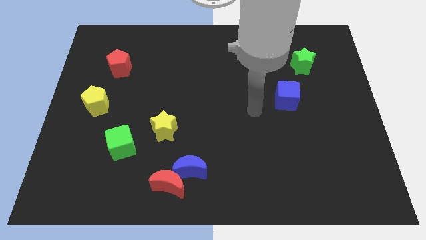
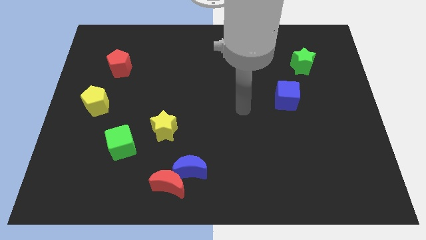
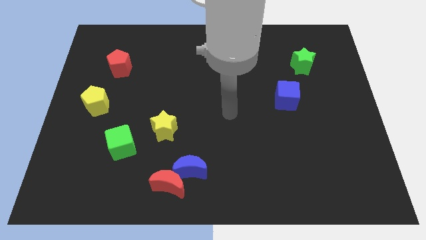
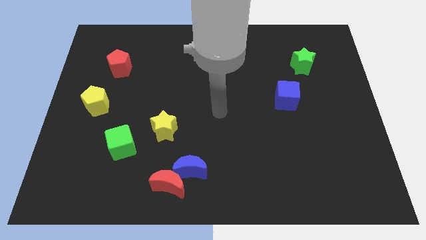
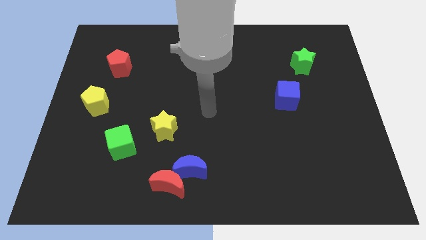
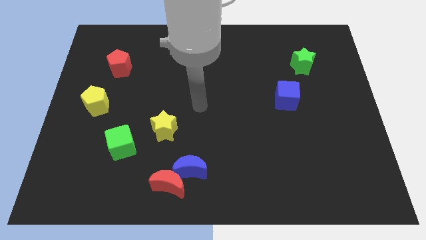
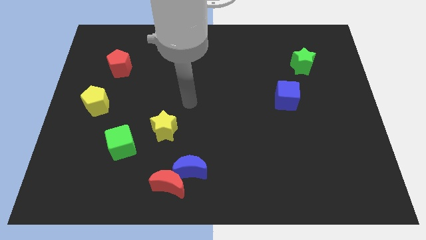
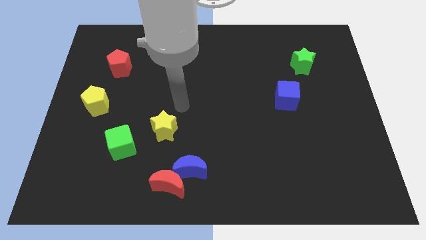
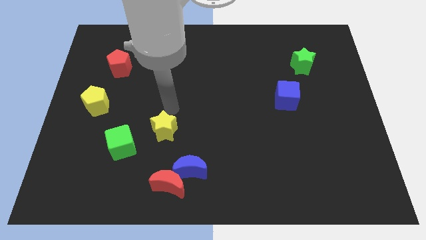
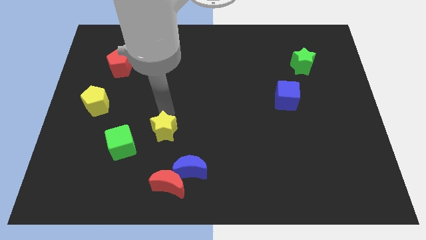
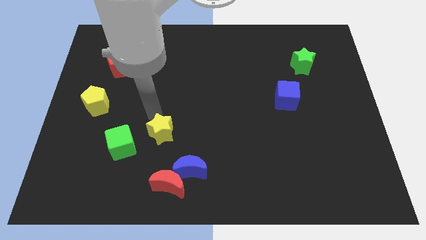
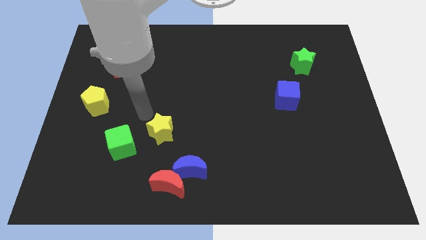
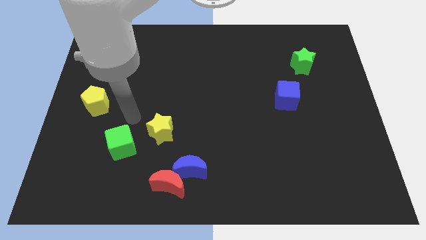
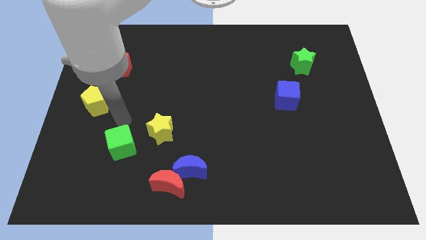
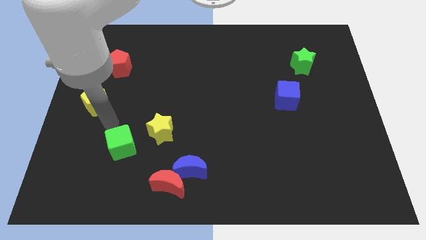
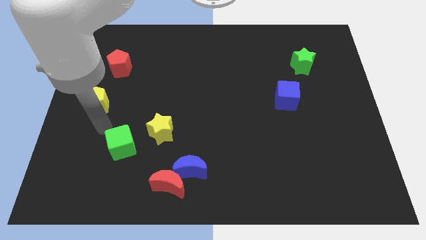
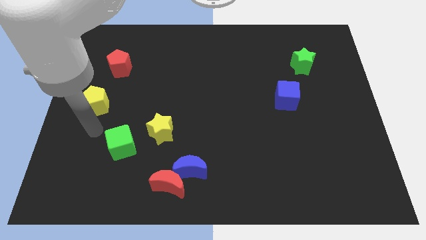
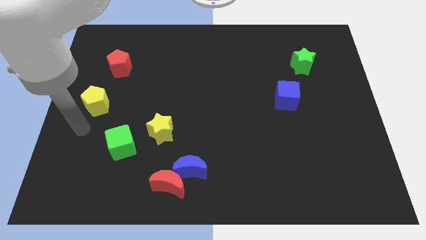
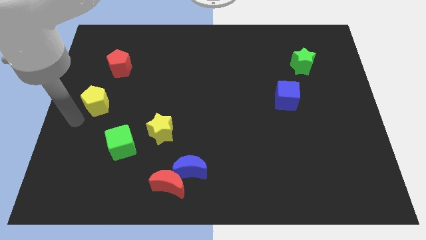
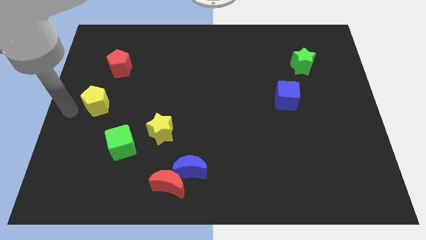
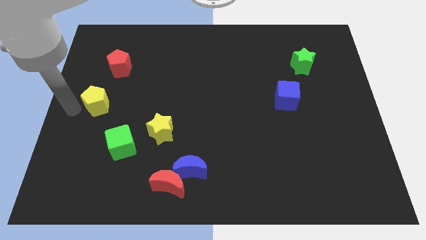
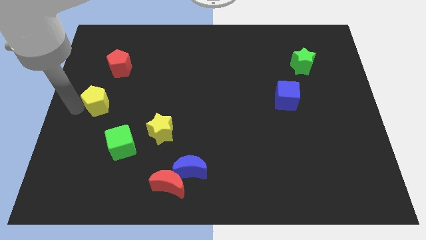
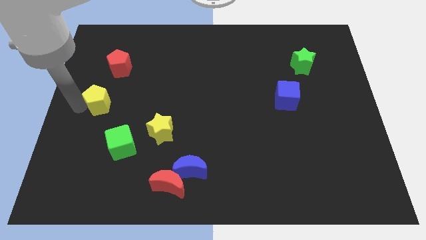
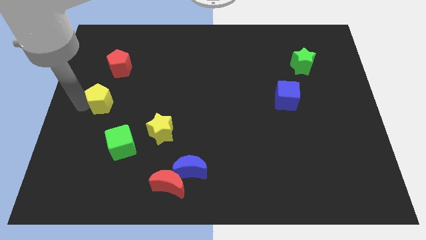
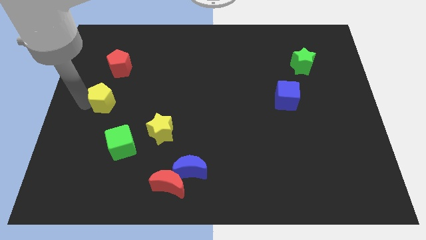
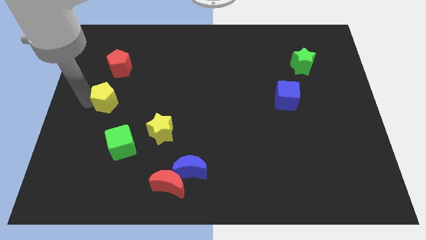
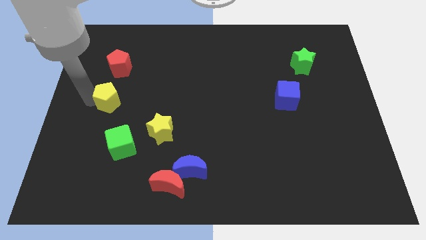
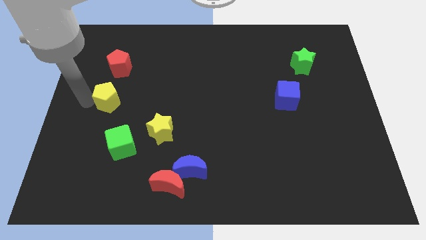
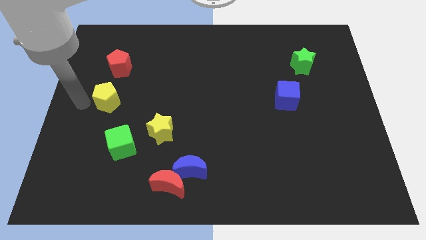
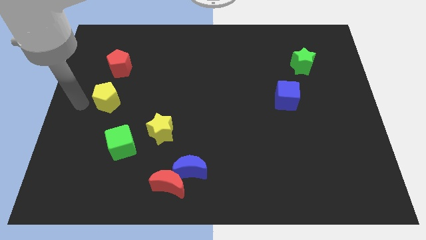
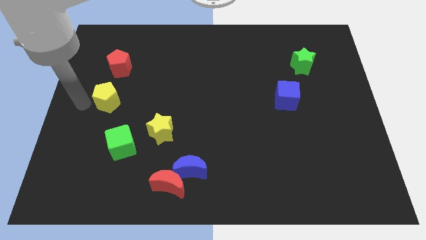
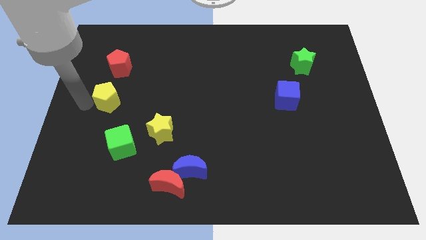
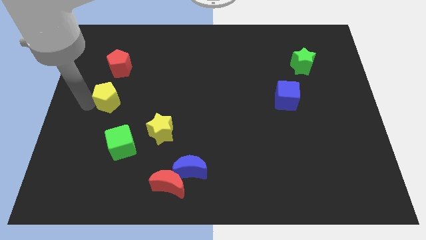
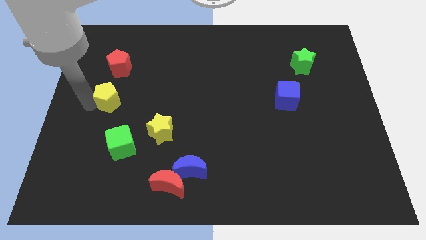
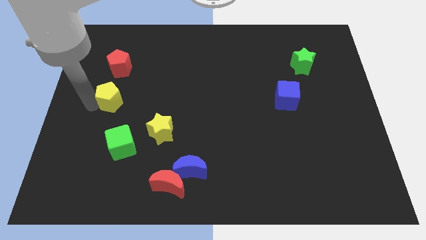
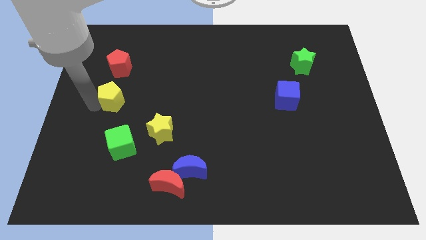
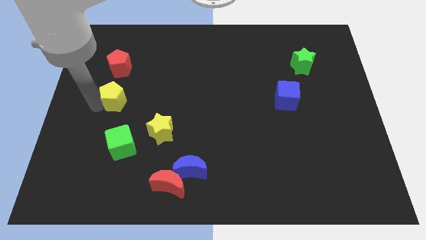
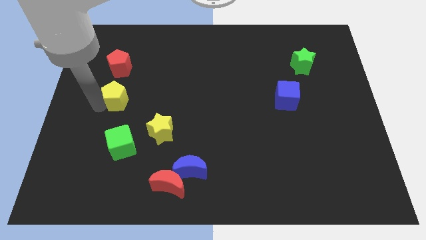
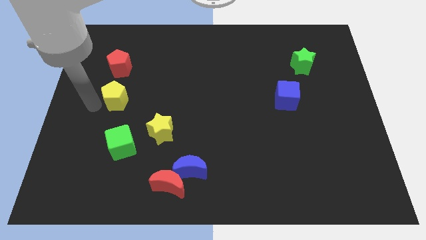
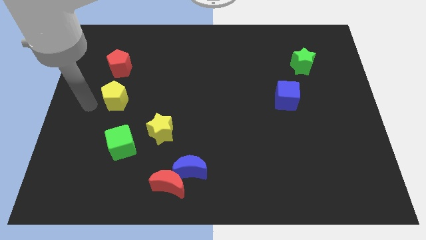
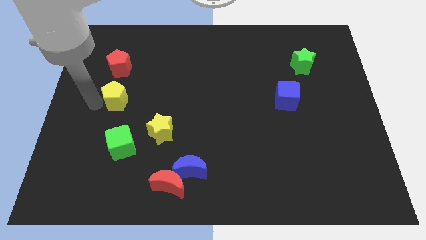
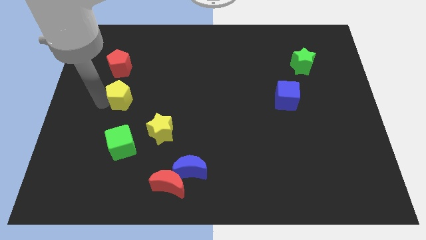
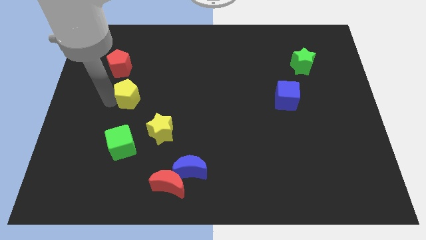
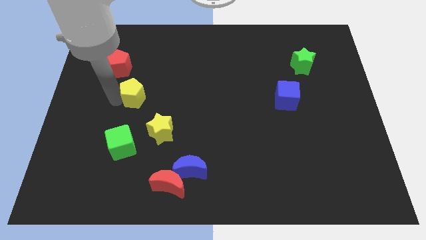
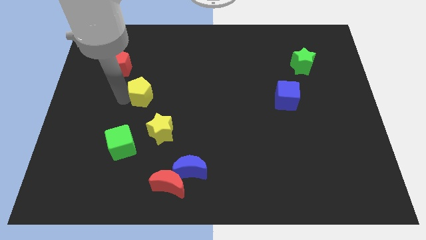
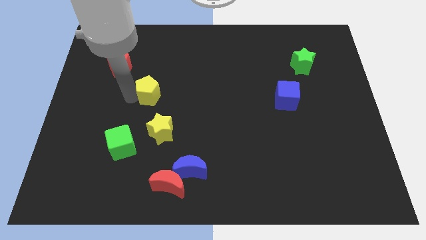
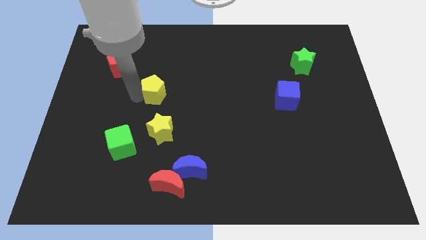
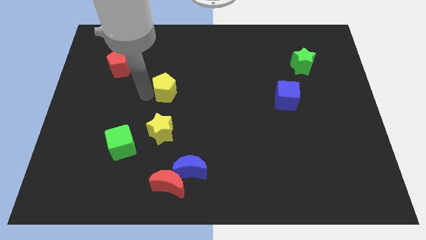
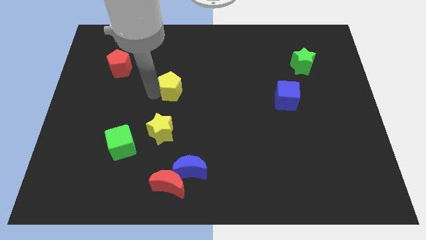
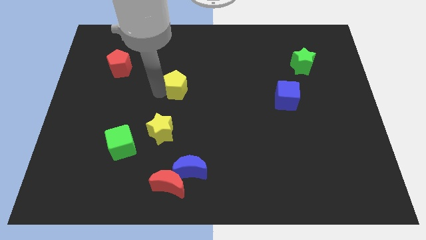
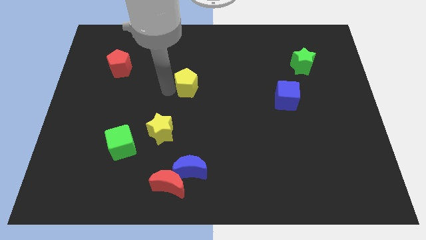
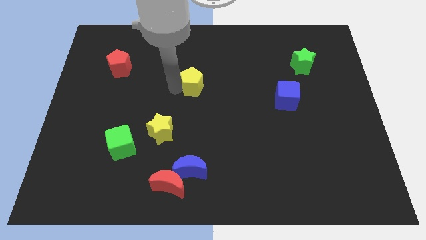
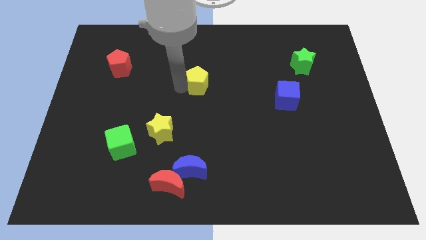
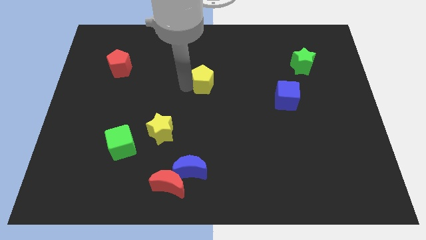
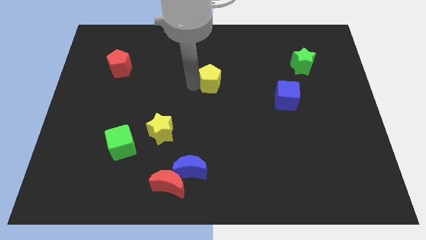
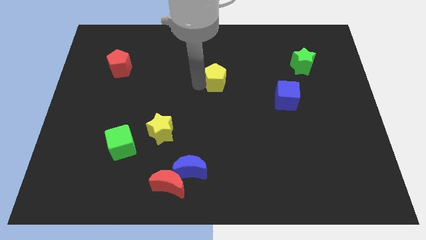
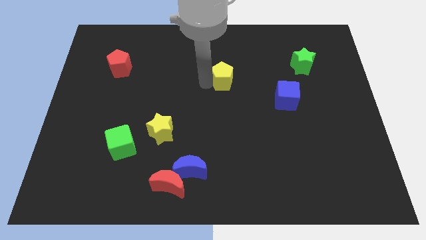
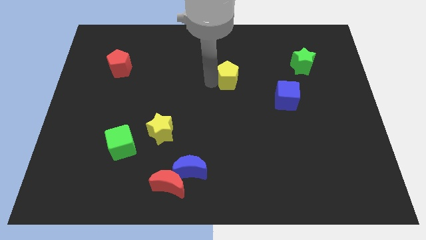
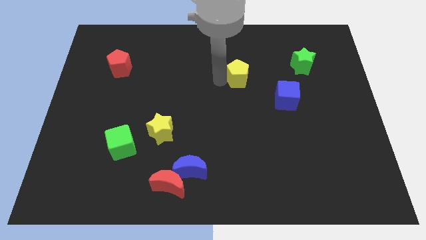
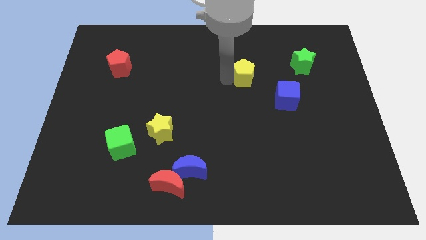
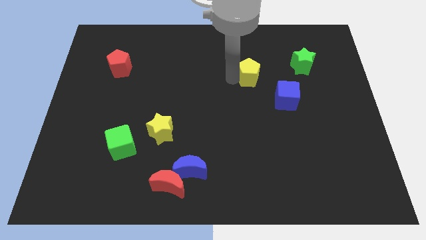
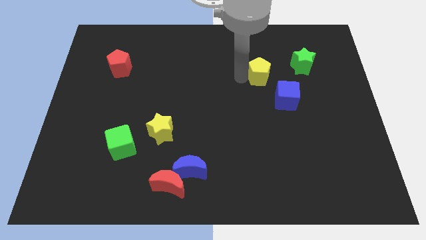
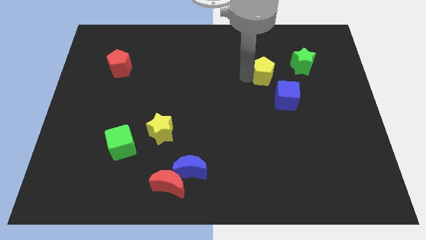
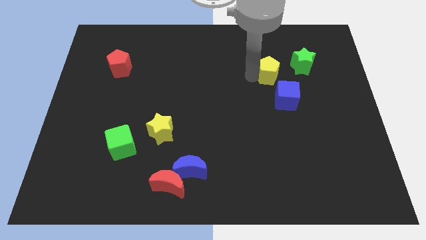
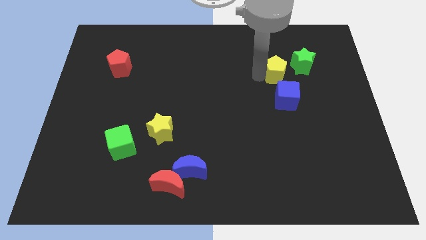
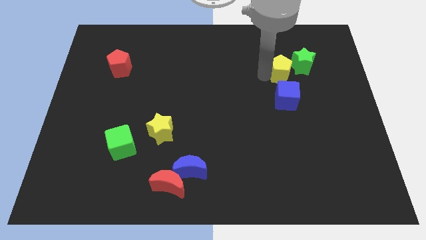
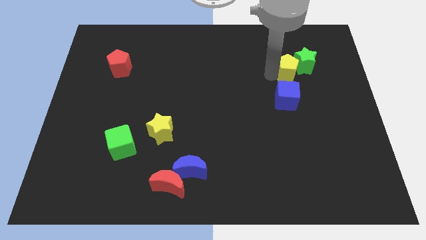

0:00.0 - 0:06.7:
move the yellow pentagon towards the green star

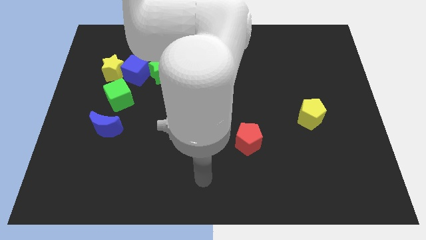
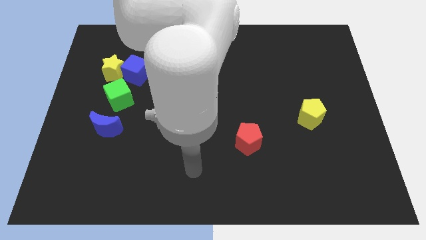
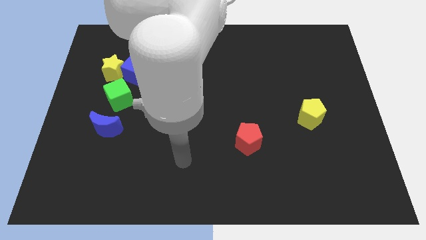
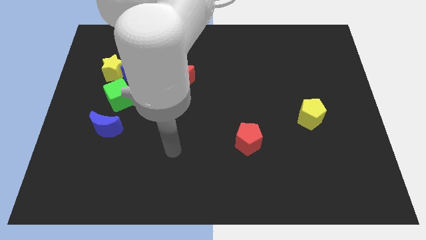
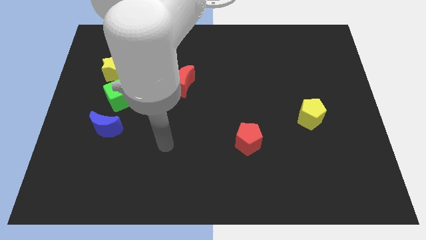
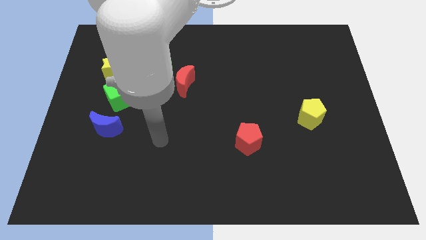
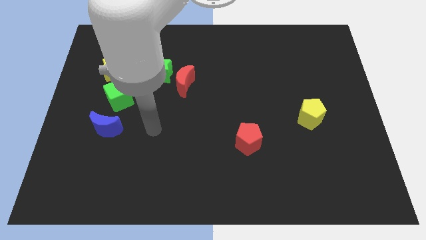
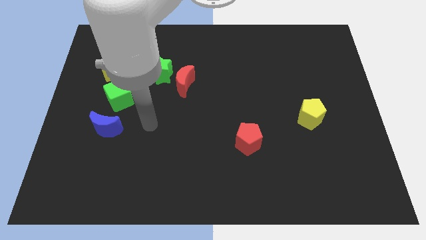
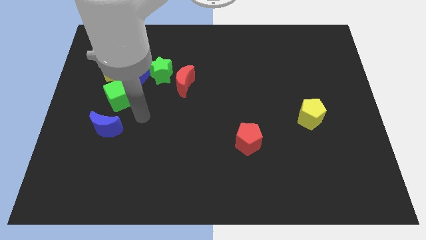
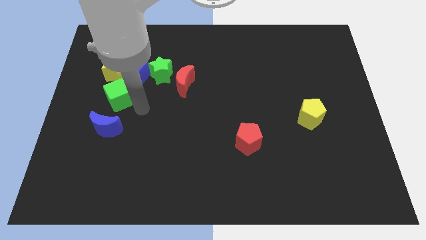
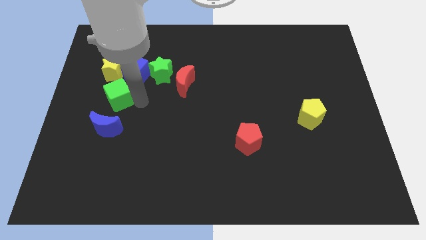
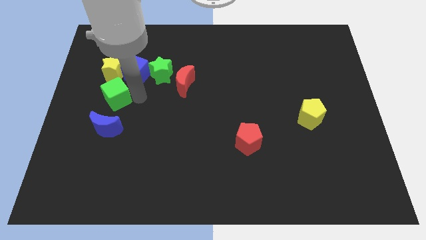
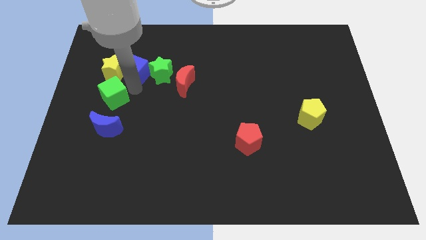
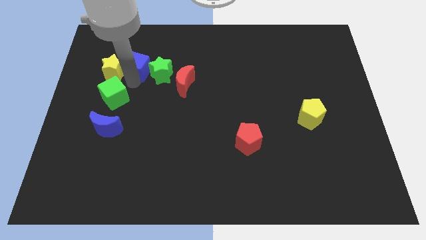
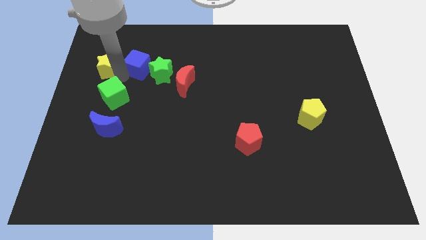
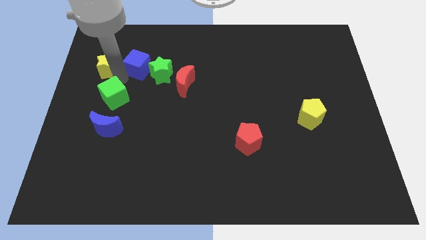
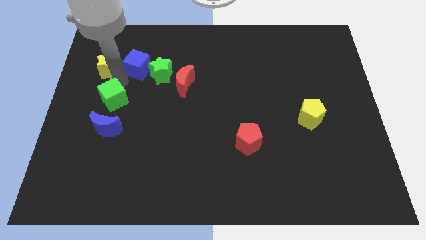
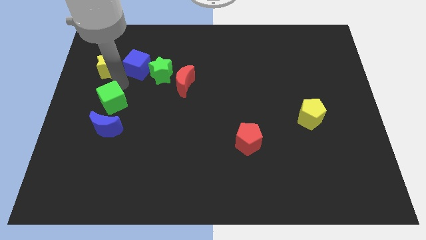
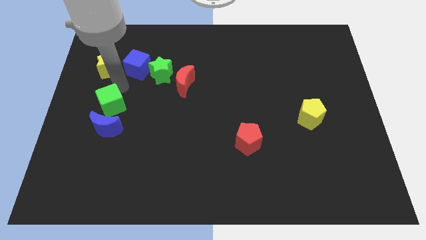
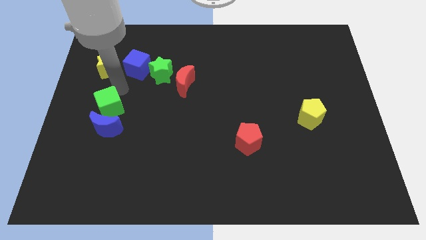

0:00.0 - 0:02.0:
move the green cube next to the blue moon
